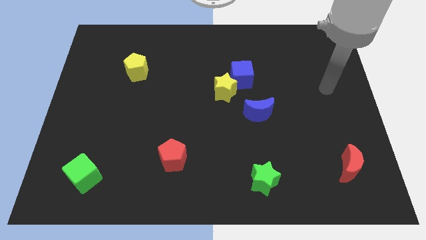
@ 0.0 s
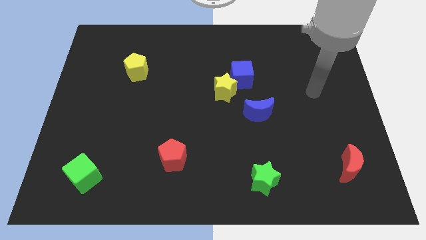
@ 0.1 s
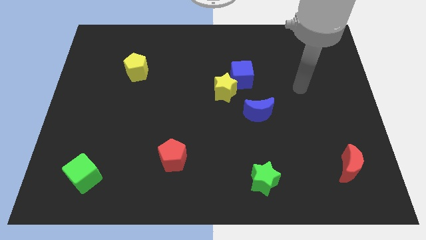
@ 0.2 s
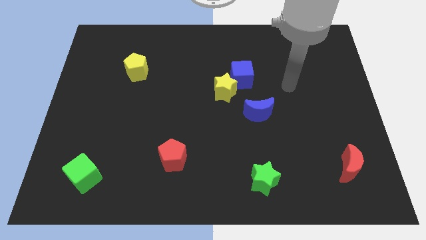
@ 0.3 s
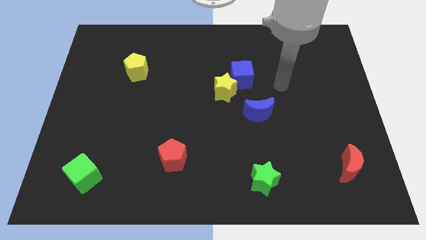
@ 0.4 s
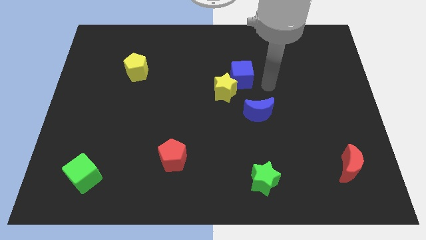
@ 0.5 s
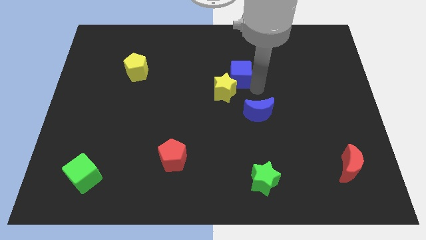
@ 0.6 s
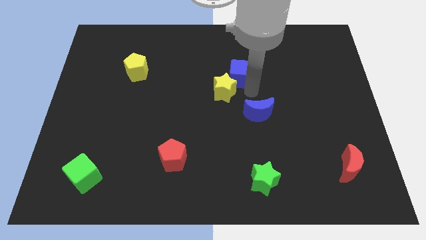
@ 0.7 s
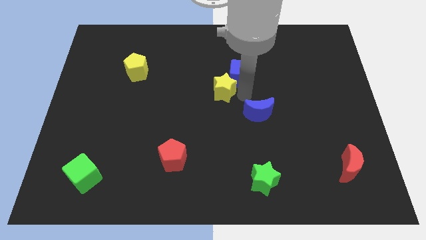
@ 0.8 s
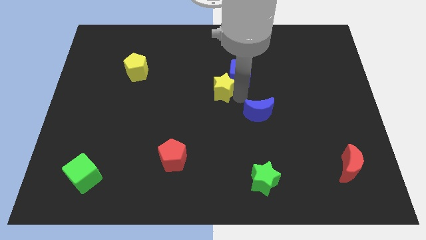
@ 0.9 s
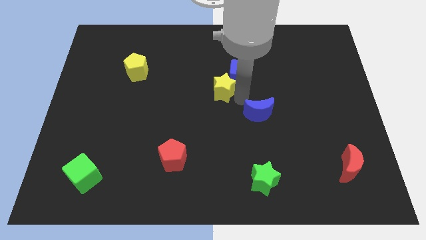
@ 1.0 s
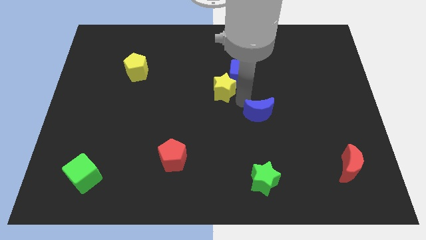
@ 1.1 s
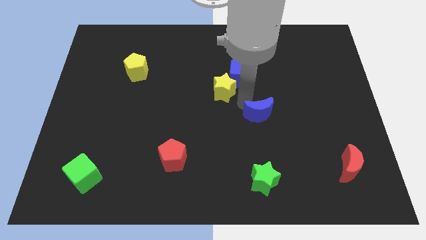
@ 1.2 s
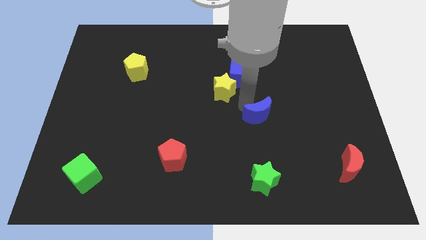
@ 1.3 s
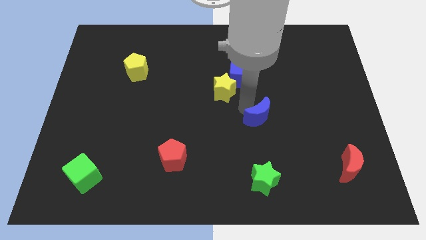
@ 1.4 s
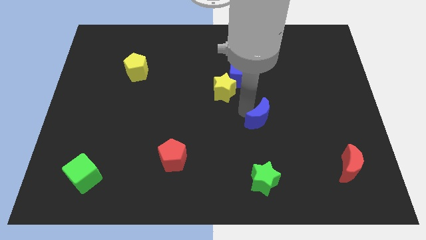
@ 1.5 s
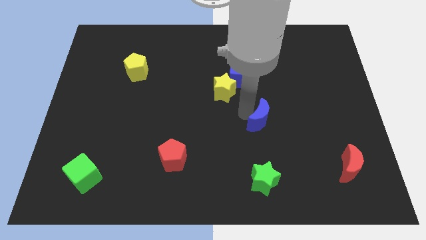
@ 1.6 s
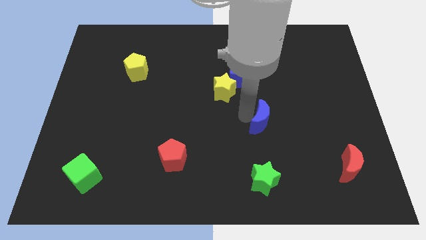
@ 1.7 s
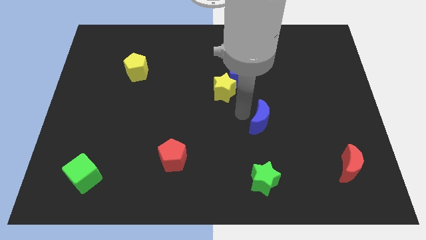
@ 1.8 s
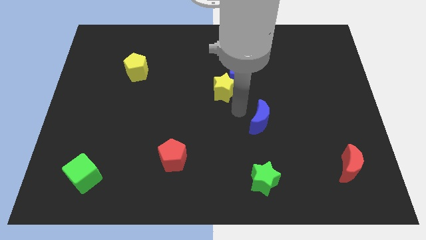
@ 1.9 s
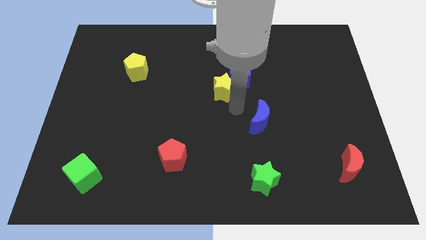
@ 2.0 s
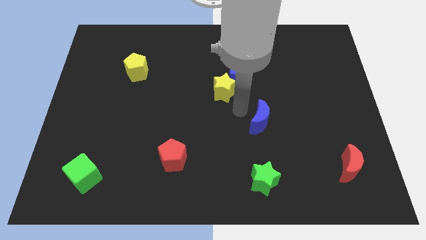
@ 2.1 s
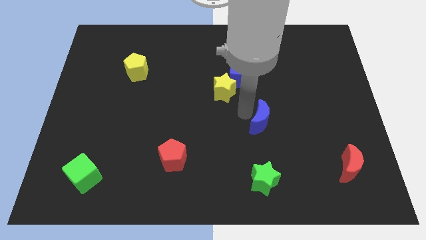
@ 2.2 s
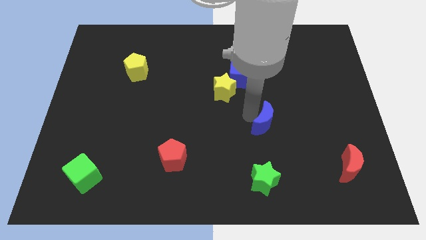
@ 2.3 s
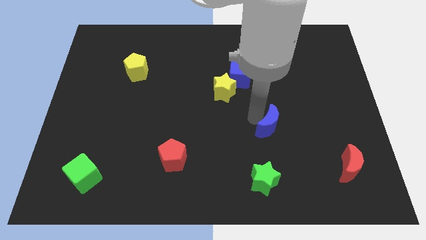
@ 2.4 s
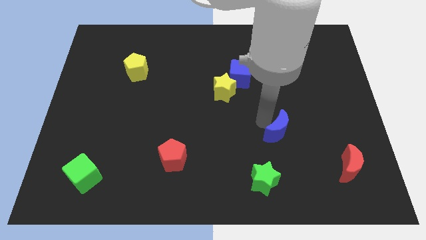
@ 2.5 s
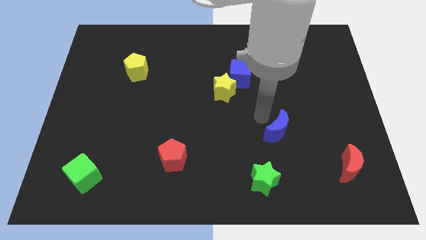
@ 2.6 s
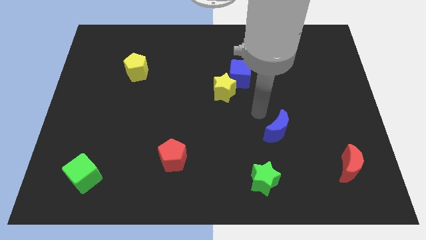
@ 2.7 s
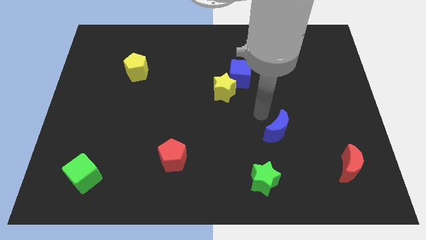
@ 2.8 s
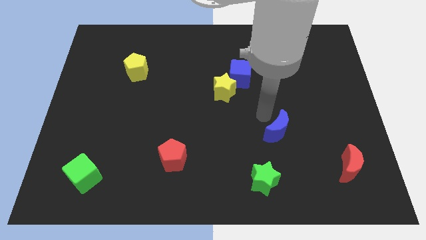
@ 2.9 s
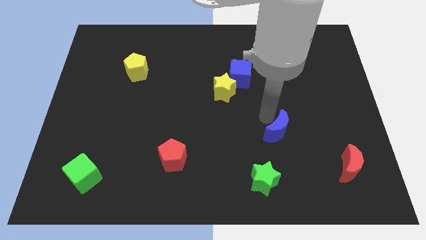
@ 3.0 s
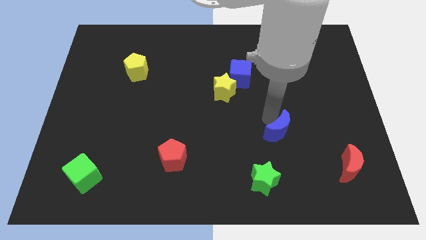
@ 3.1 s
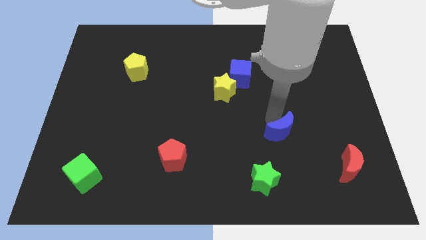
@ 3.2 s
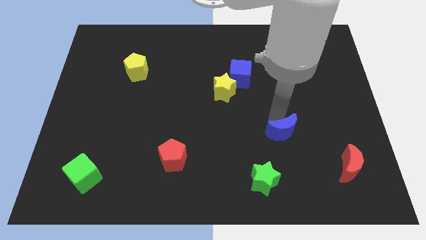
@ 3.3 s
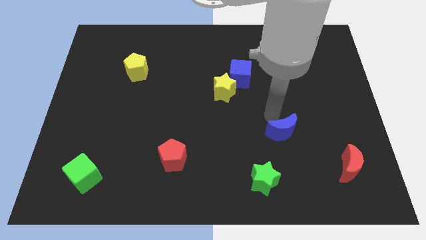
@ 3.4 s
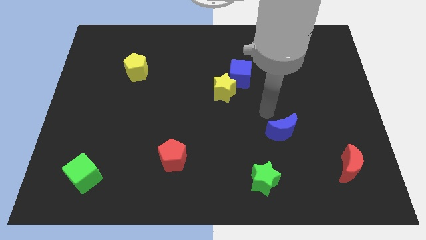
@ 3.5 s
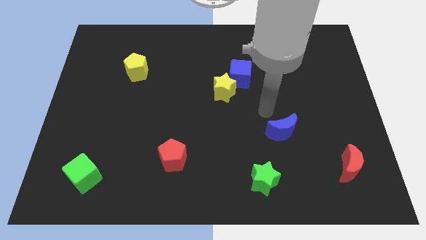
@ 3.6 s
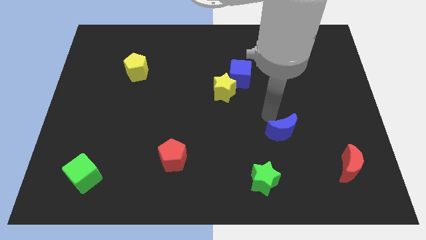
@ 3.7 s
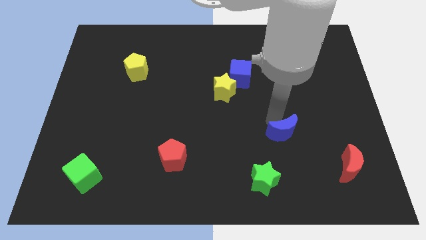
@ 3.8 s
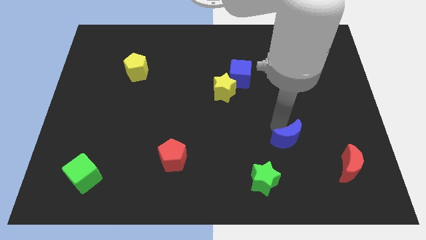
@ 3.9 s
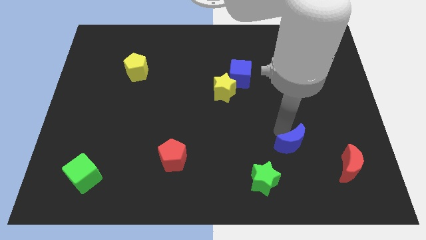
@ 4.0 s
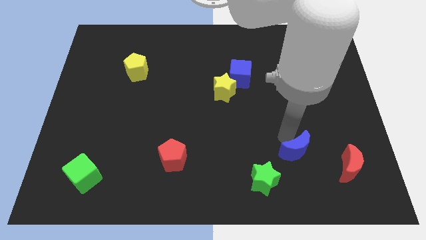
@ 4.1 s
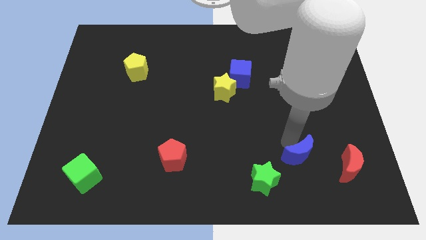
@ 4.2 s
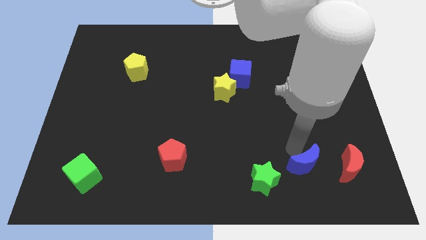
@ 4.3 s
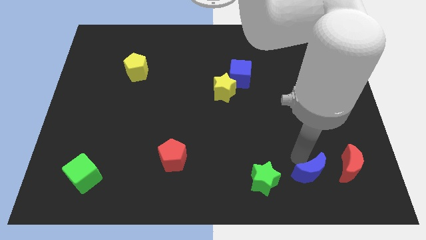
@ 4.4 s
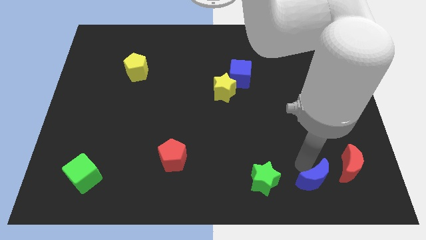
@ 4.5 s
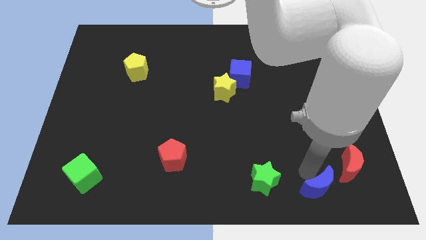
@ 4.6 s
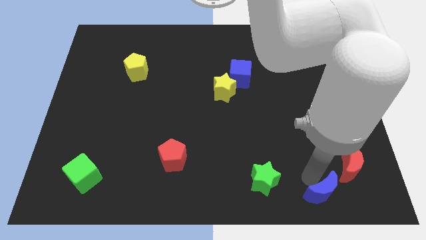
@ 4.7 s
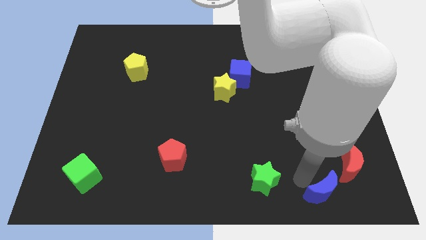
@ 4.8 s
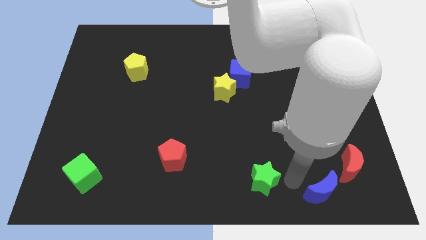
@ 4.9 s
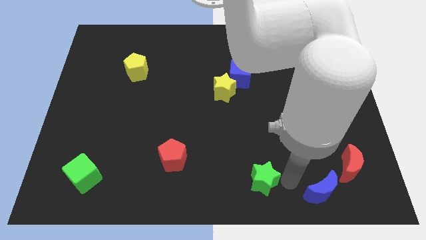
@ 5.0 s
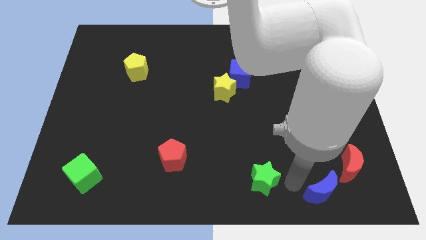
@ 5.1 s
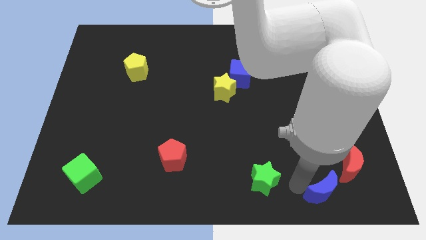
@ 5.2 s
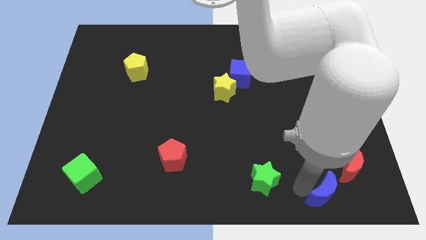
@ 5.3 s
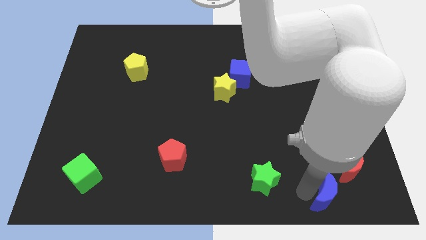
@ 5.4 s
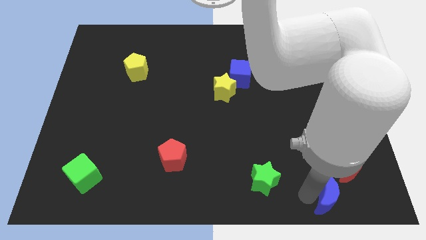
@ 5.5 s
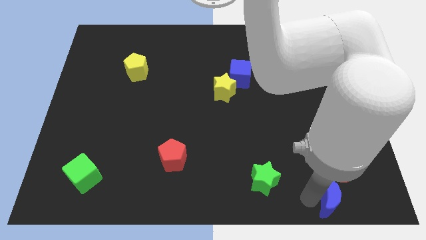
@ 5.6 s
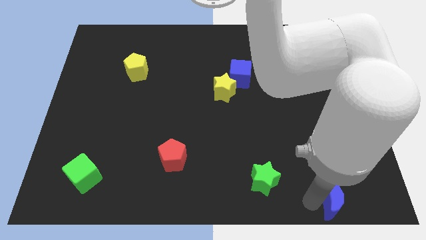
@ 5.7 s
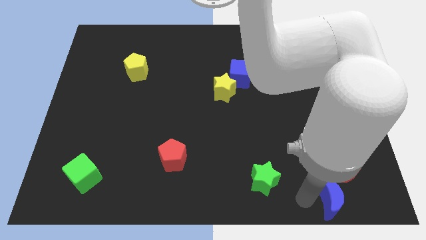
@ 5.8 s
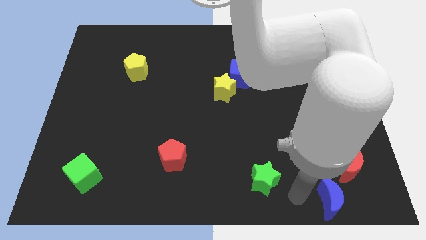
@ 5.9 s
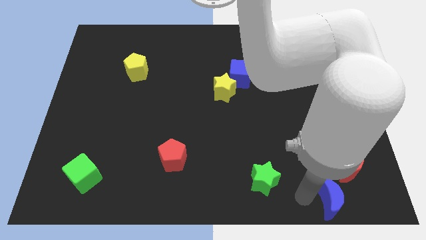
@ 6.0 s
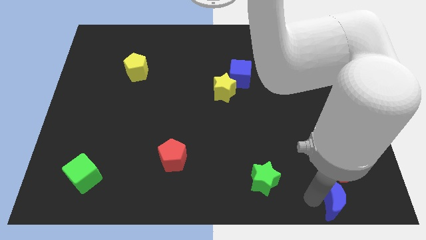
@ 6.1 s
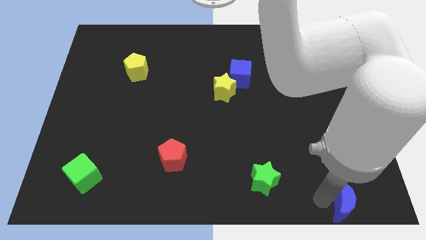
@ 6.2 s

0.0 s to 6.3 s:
put the blue moon to the bottom right of the board

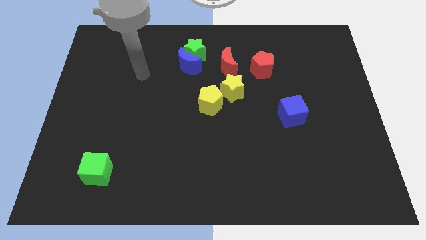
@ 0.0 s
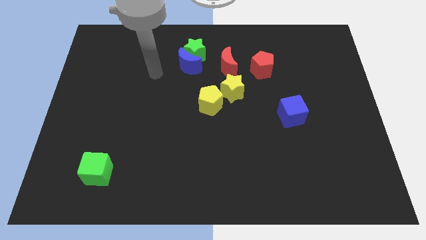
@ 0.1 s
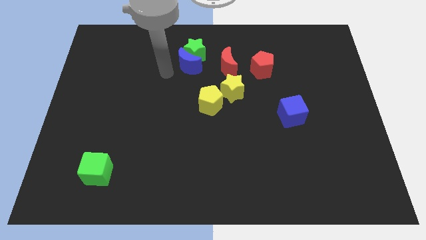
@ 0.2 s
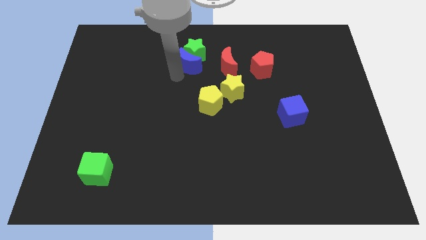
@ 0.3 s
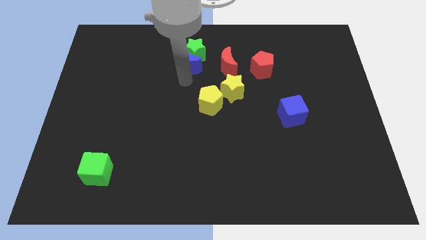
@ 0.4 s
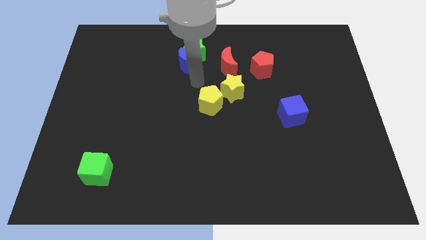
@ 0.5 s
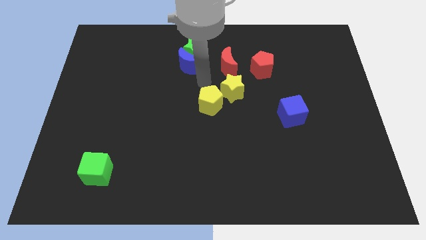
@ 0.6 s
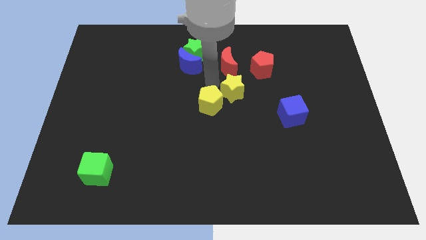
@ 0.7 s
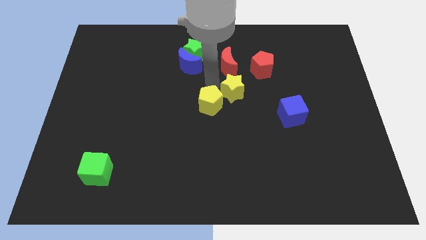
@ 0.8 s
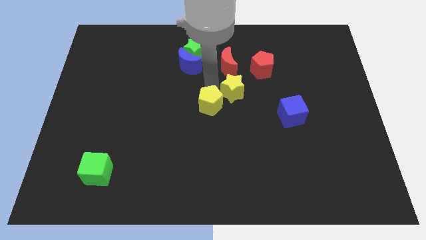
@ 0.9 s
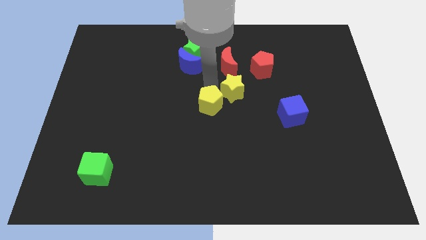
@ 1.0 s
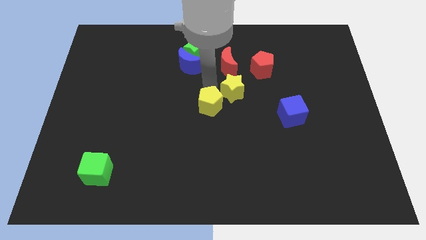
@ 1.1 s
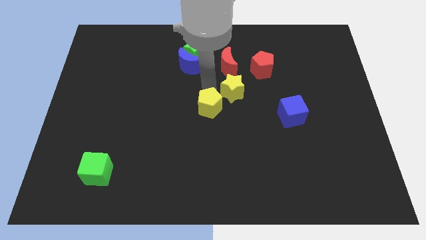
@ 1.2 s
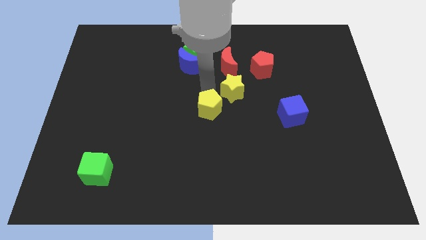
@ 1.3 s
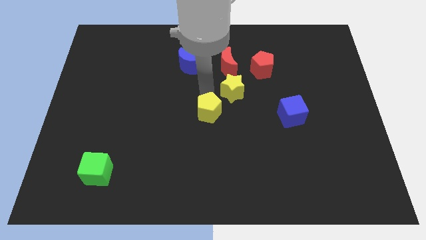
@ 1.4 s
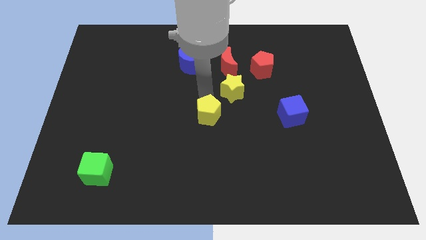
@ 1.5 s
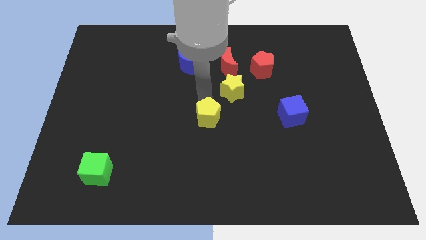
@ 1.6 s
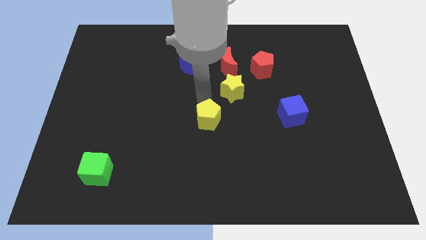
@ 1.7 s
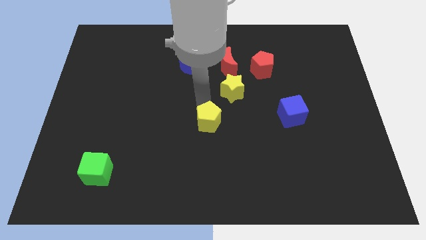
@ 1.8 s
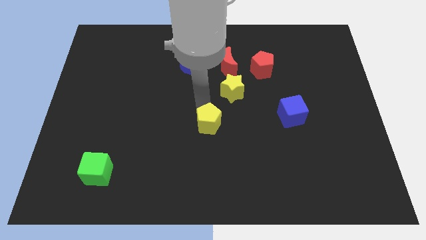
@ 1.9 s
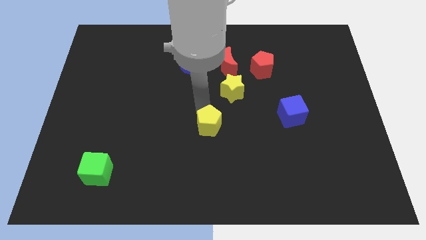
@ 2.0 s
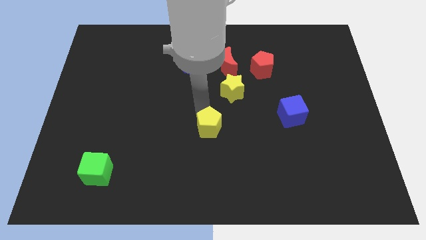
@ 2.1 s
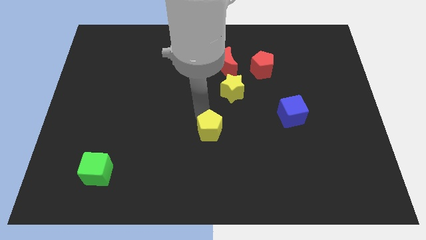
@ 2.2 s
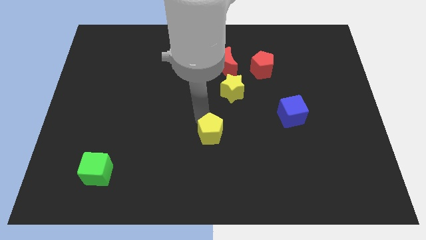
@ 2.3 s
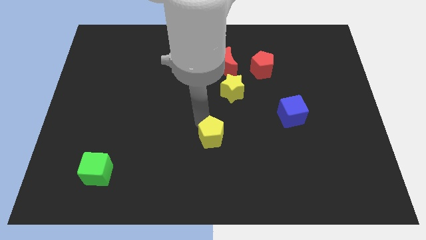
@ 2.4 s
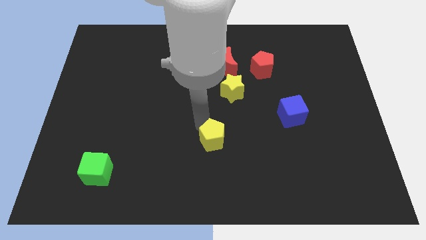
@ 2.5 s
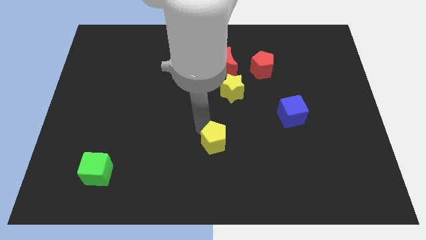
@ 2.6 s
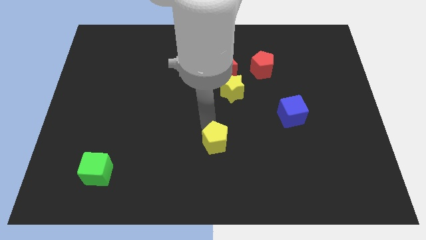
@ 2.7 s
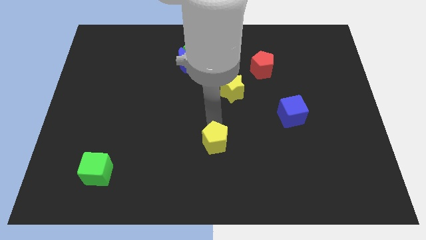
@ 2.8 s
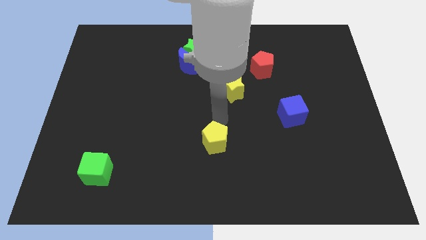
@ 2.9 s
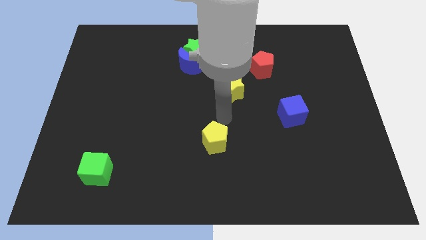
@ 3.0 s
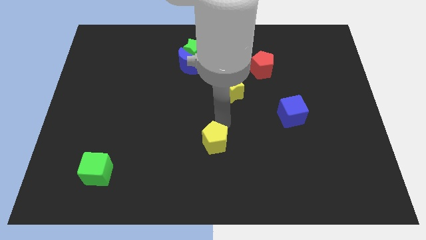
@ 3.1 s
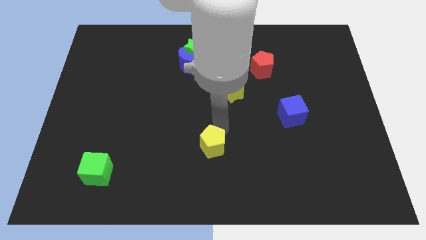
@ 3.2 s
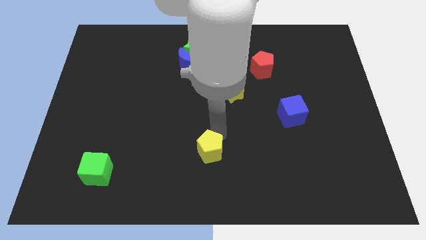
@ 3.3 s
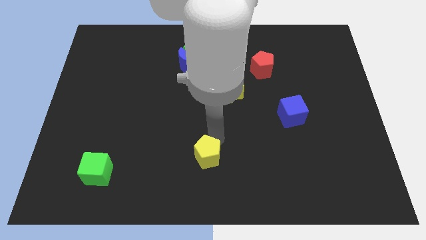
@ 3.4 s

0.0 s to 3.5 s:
push the yellow pentagon to the bottom side
